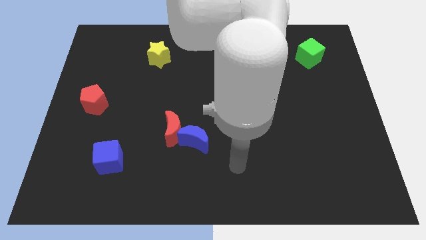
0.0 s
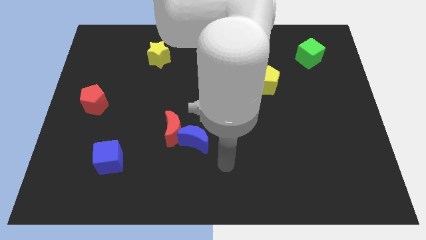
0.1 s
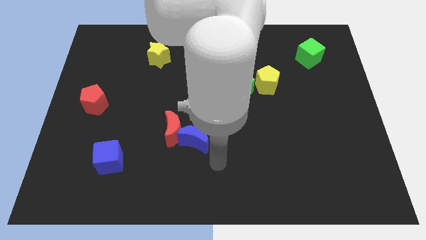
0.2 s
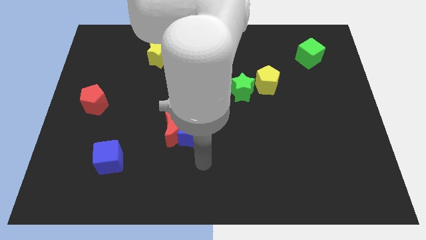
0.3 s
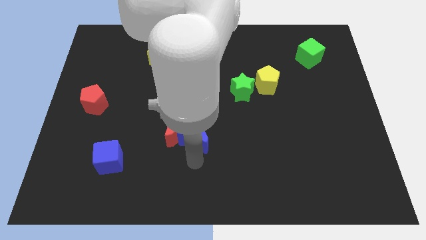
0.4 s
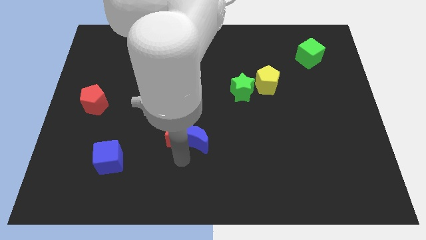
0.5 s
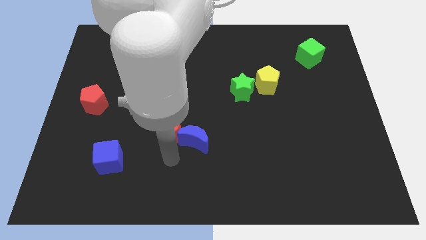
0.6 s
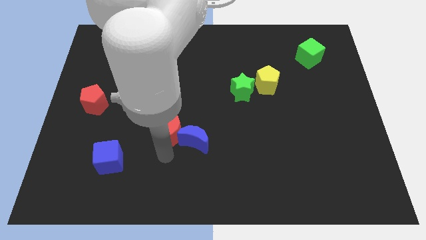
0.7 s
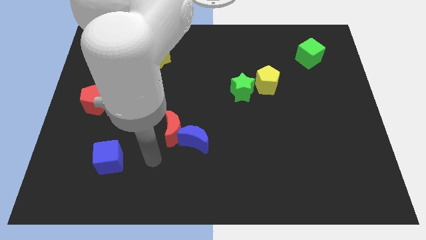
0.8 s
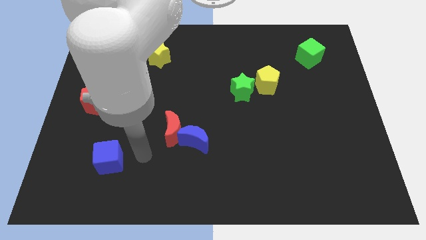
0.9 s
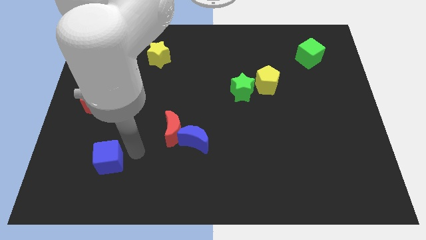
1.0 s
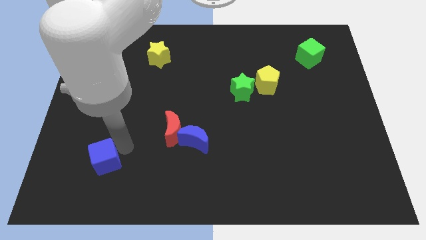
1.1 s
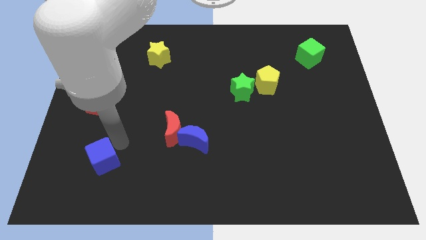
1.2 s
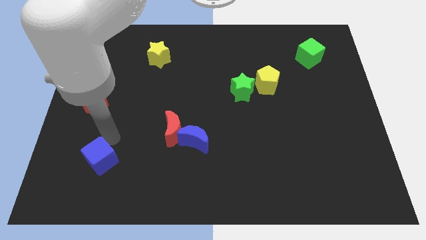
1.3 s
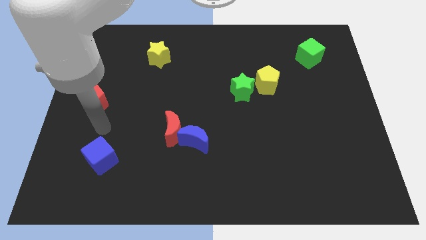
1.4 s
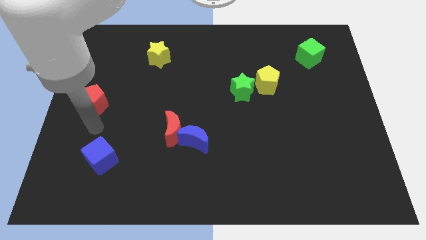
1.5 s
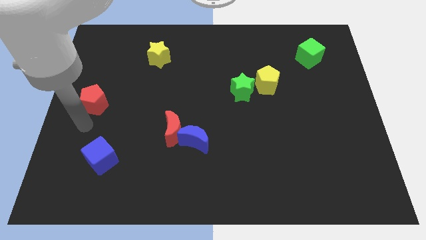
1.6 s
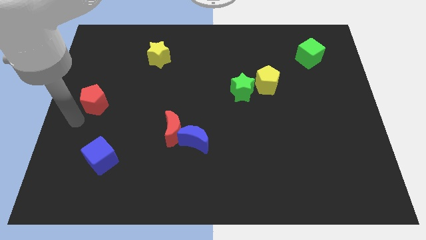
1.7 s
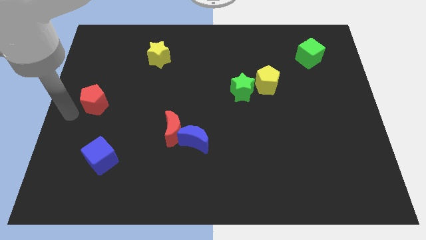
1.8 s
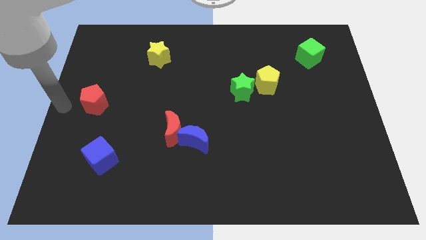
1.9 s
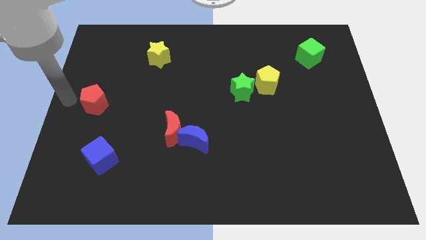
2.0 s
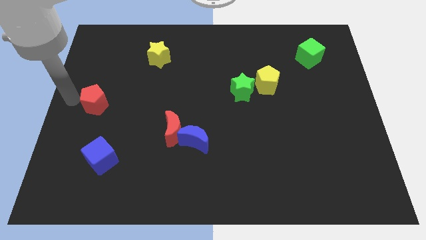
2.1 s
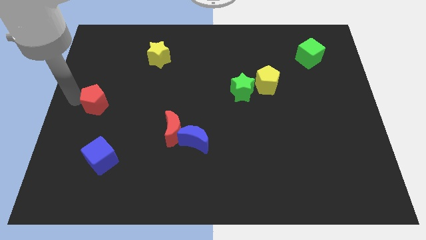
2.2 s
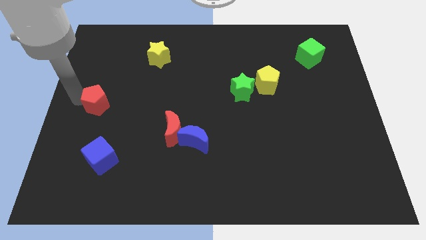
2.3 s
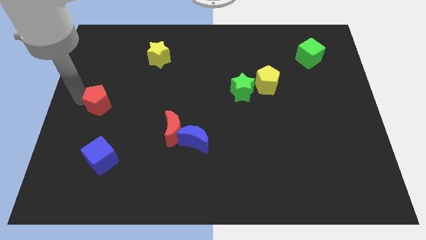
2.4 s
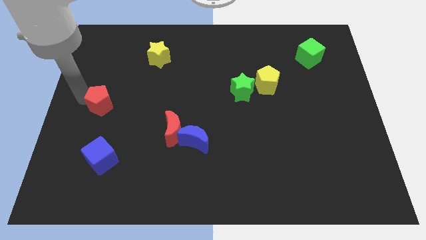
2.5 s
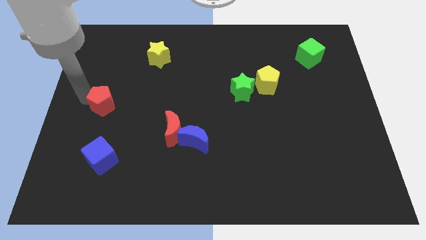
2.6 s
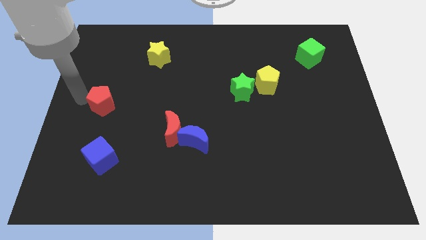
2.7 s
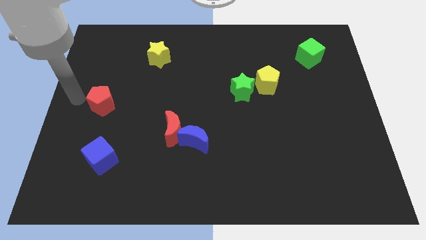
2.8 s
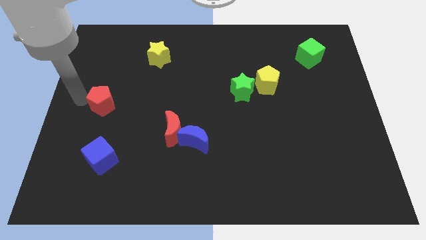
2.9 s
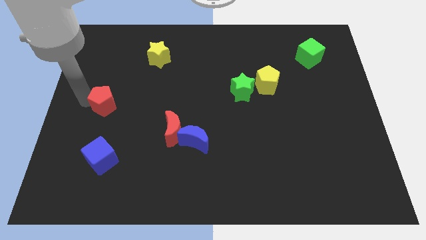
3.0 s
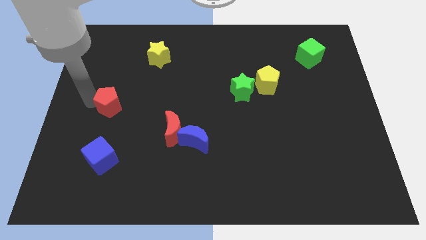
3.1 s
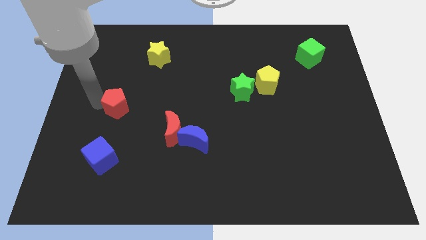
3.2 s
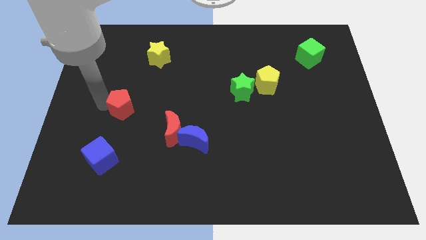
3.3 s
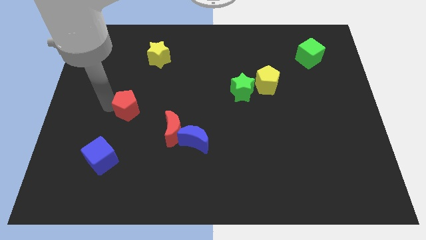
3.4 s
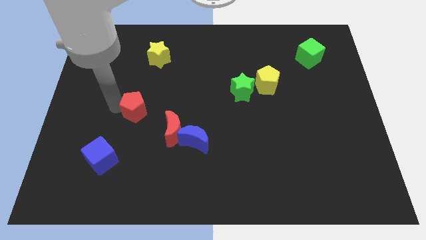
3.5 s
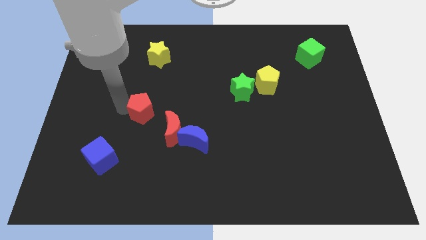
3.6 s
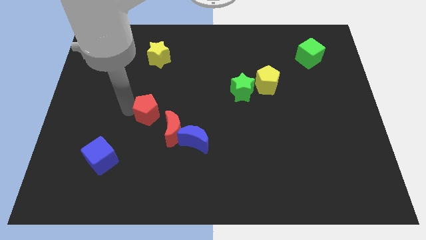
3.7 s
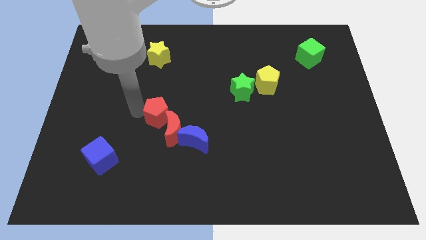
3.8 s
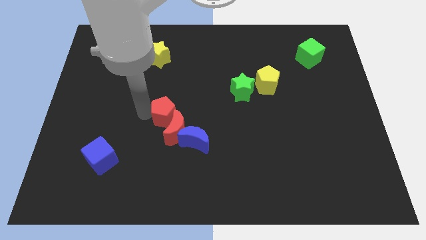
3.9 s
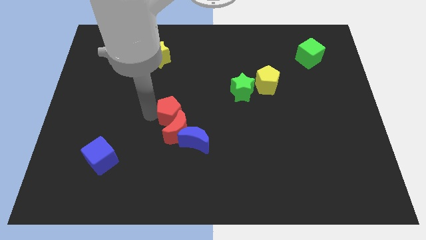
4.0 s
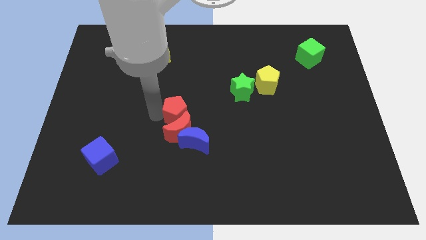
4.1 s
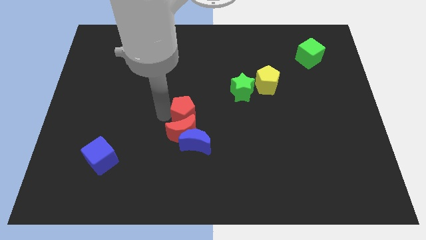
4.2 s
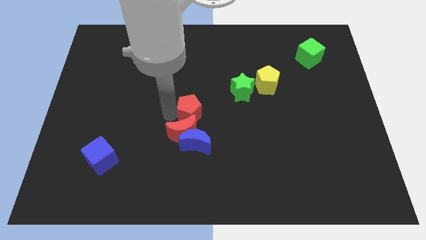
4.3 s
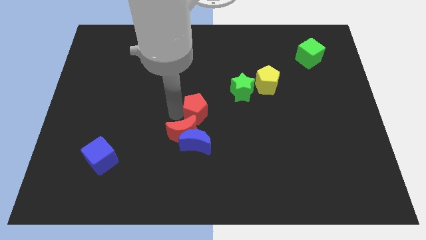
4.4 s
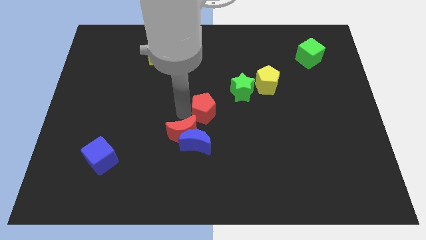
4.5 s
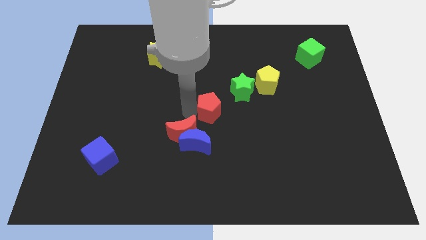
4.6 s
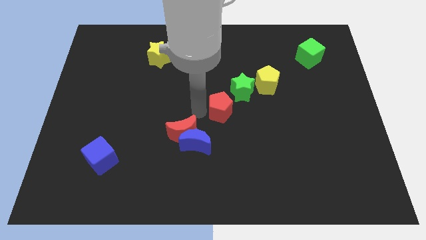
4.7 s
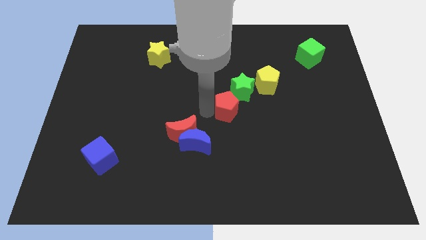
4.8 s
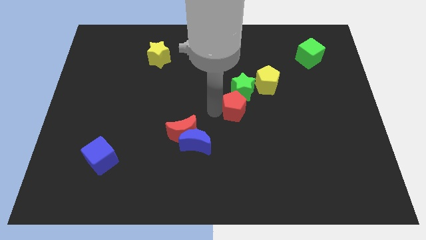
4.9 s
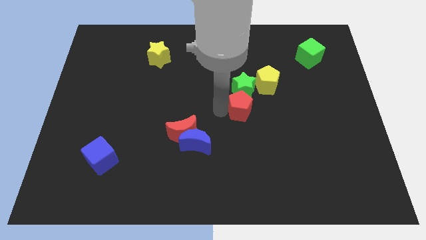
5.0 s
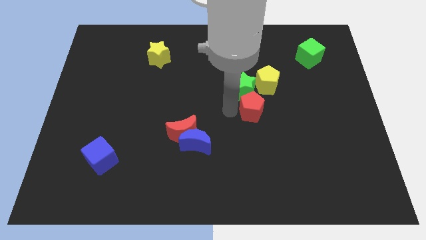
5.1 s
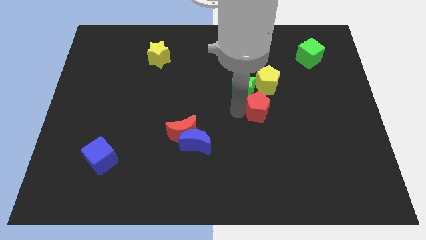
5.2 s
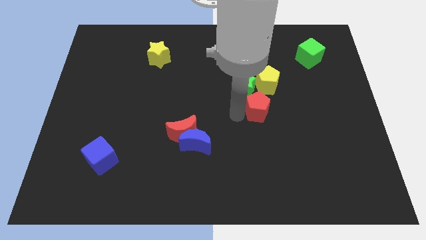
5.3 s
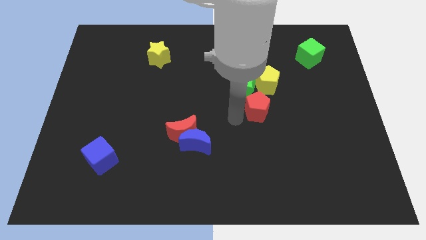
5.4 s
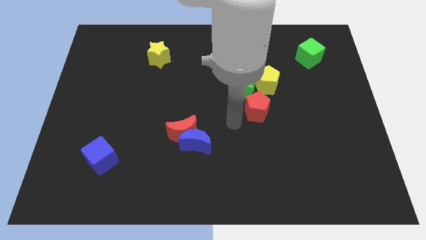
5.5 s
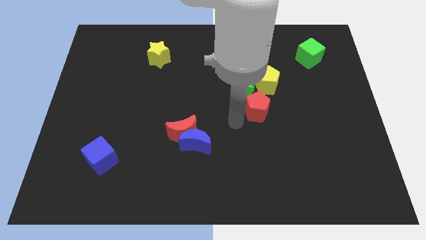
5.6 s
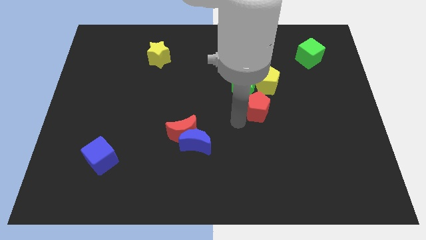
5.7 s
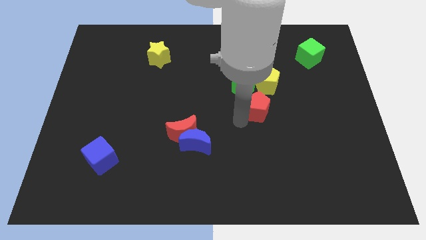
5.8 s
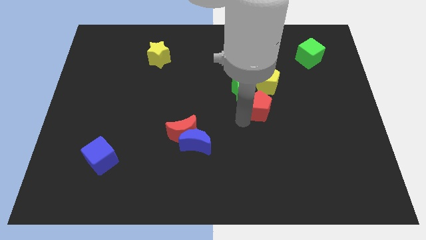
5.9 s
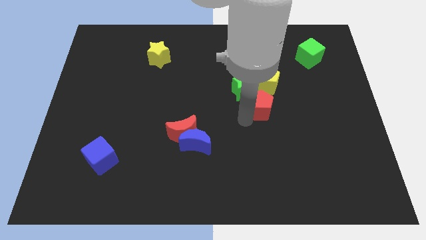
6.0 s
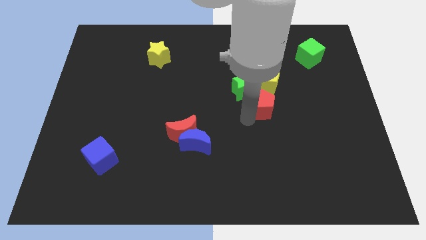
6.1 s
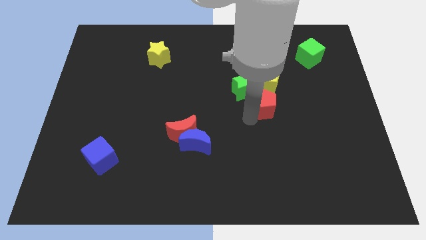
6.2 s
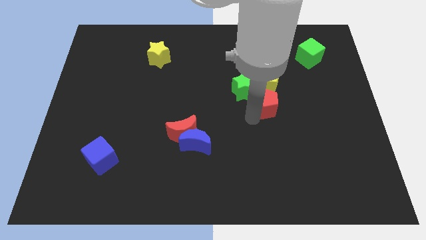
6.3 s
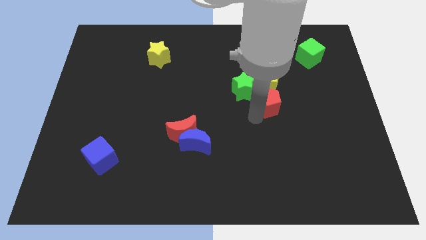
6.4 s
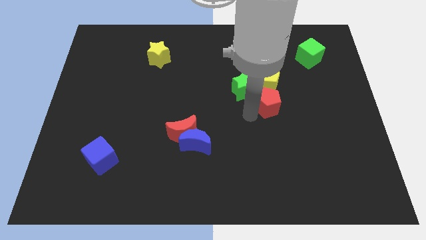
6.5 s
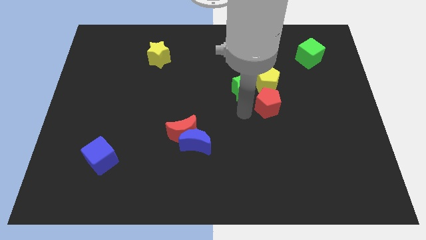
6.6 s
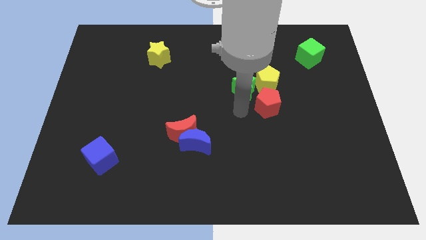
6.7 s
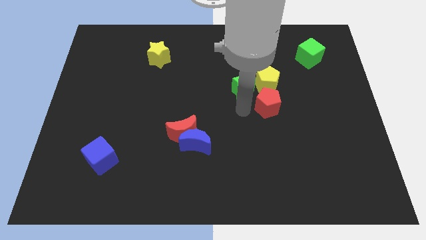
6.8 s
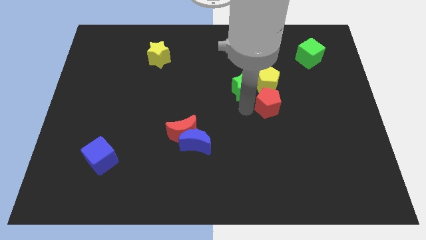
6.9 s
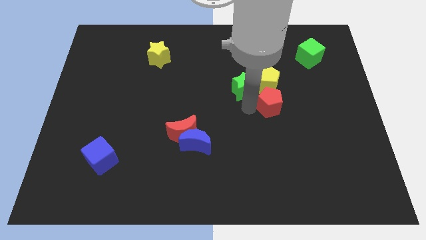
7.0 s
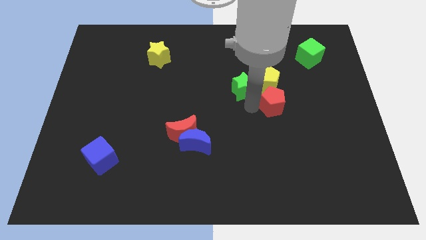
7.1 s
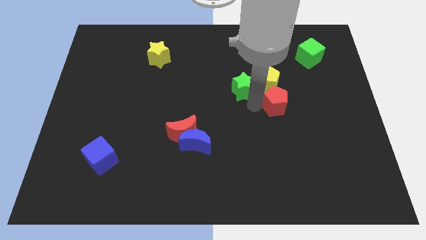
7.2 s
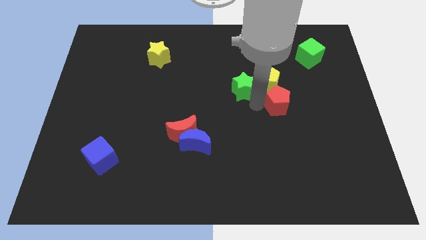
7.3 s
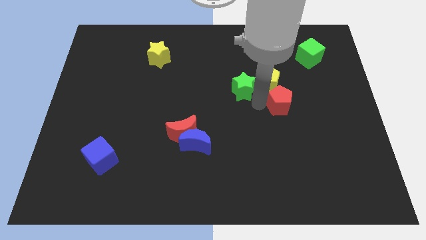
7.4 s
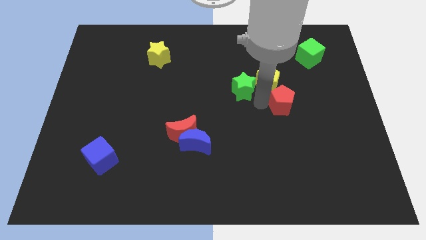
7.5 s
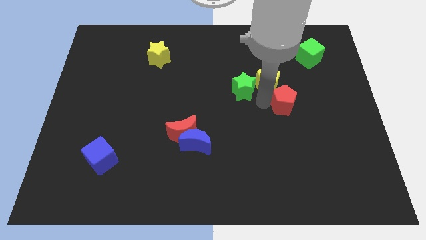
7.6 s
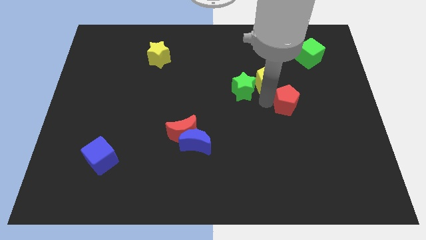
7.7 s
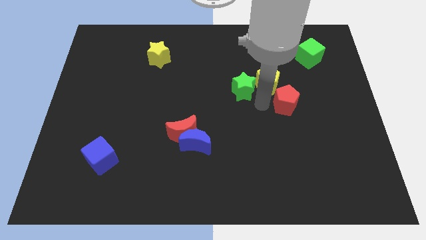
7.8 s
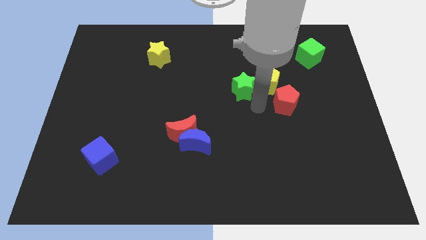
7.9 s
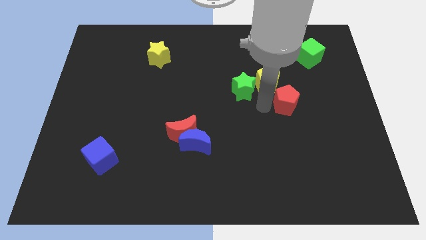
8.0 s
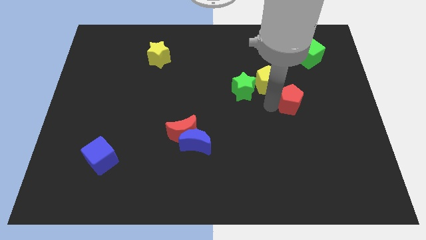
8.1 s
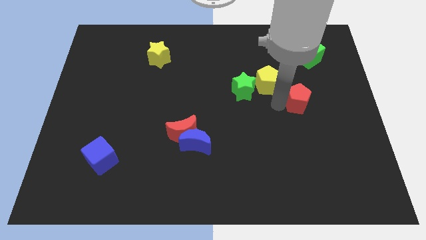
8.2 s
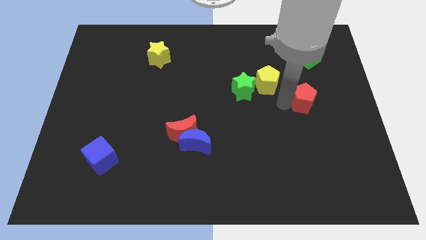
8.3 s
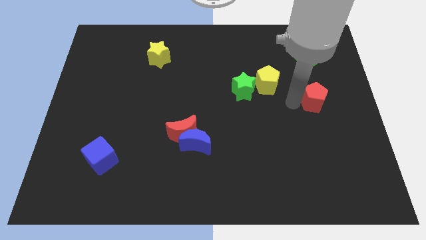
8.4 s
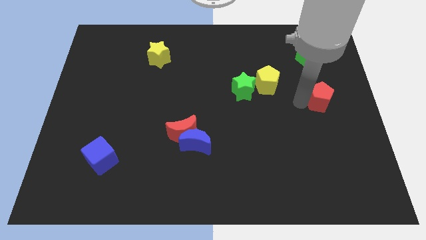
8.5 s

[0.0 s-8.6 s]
slide the red pentagon to the center right
